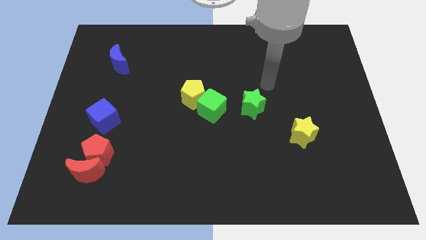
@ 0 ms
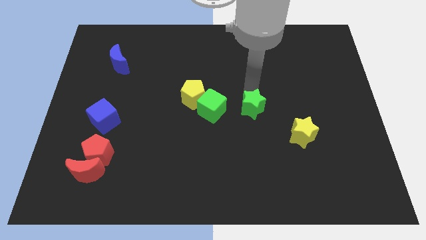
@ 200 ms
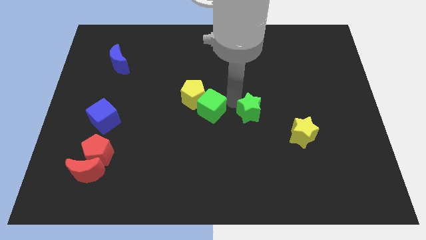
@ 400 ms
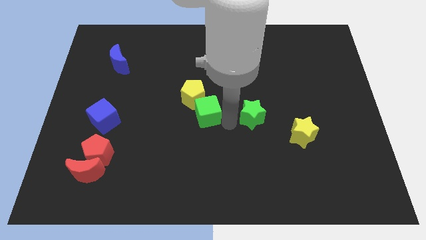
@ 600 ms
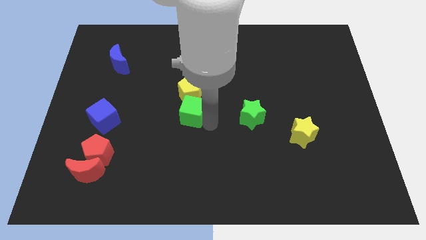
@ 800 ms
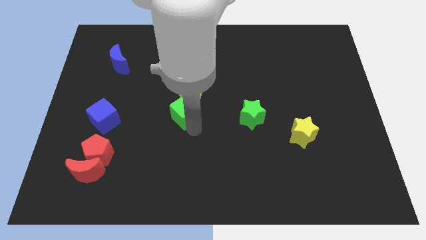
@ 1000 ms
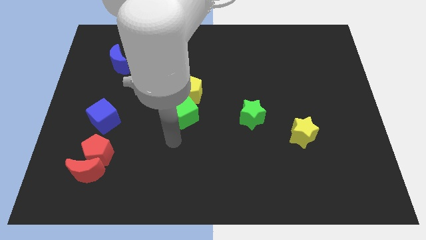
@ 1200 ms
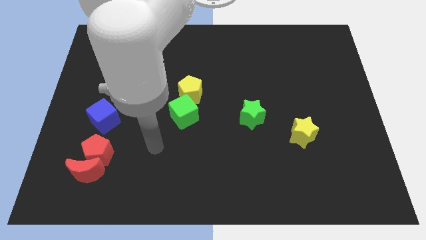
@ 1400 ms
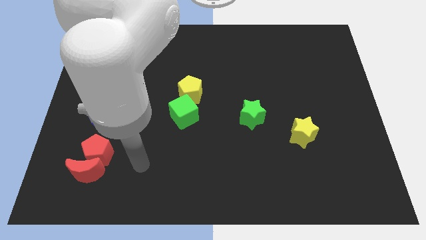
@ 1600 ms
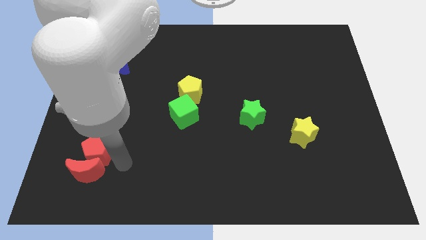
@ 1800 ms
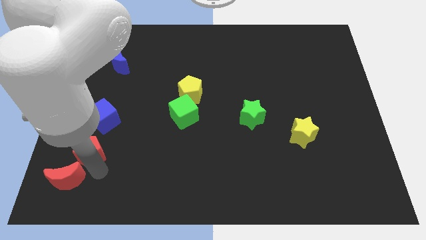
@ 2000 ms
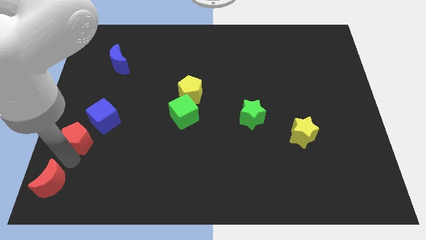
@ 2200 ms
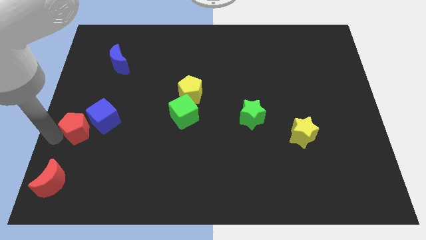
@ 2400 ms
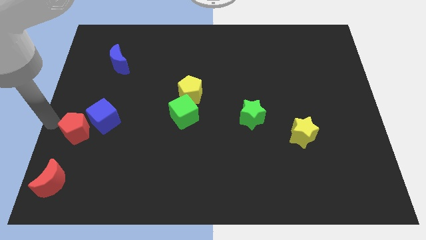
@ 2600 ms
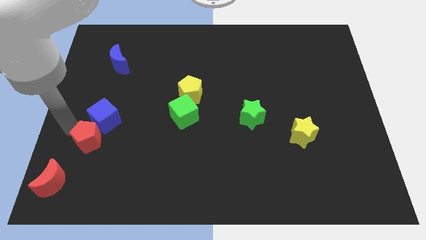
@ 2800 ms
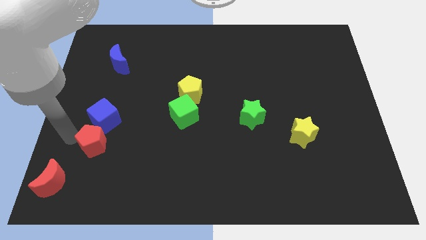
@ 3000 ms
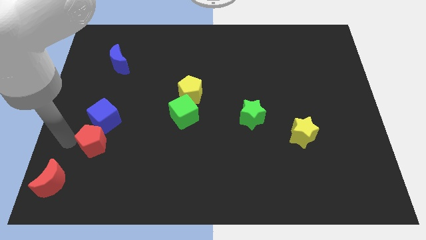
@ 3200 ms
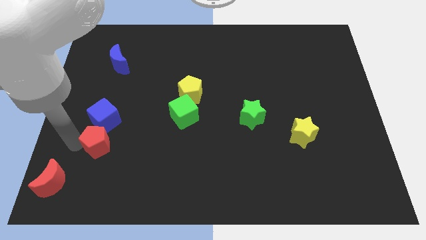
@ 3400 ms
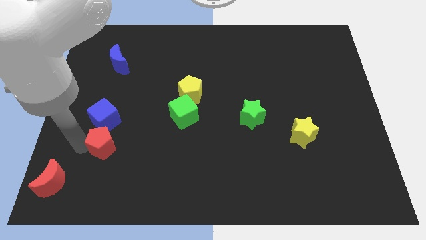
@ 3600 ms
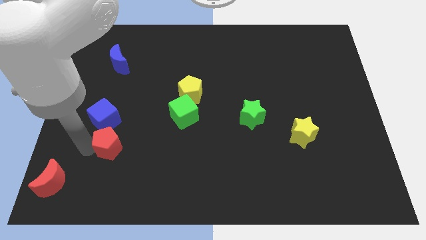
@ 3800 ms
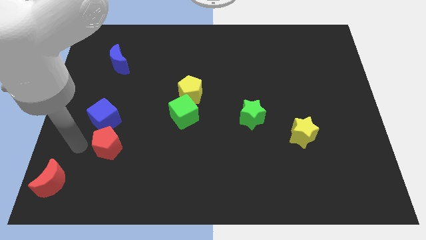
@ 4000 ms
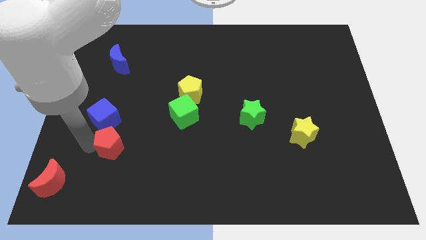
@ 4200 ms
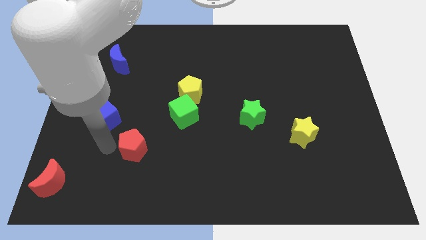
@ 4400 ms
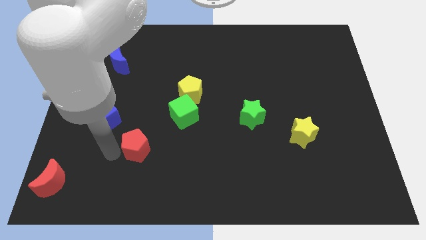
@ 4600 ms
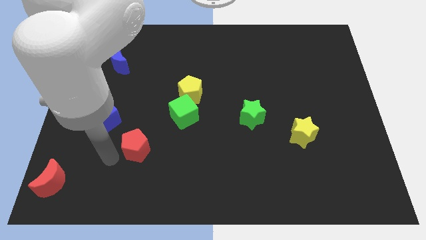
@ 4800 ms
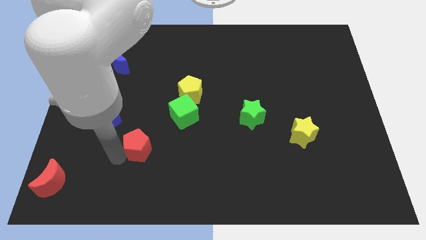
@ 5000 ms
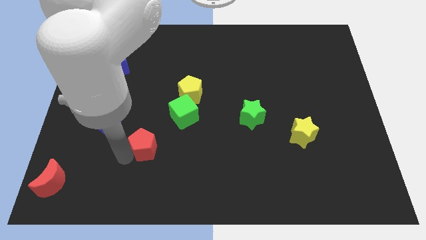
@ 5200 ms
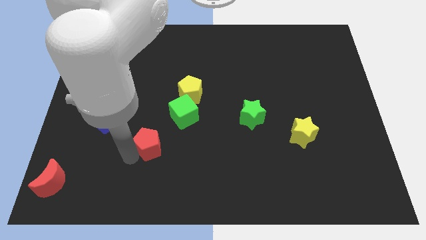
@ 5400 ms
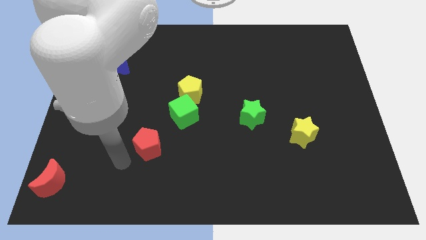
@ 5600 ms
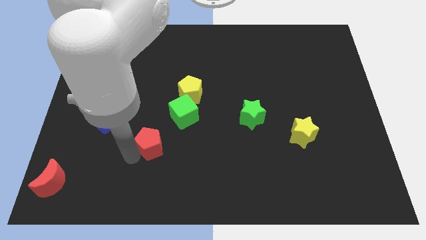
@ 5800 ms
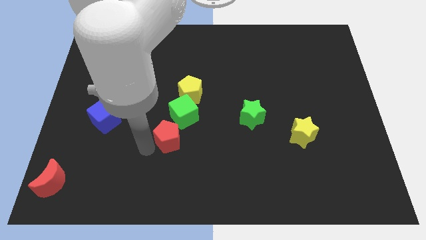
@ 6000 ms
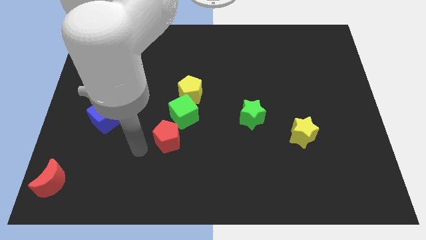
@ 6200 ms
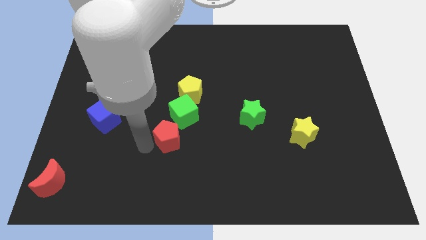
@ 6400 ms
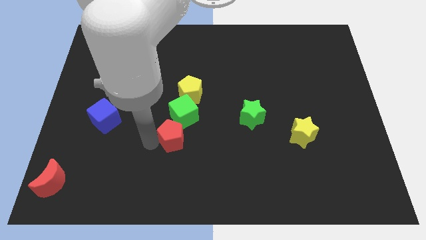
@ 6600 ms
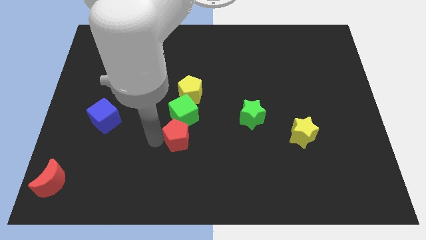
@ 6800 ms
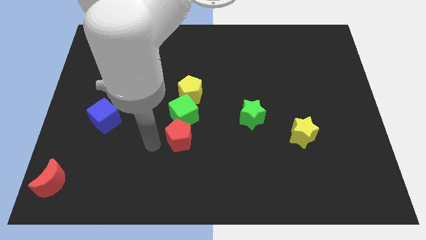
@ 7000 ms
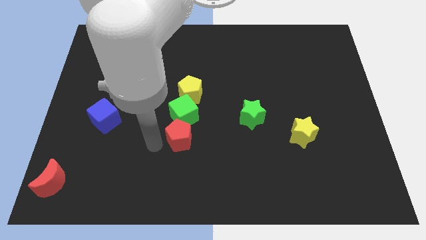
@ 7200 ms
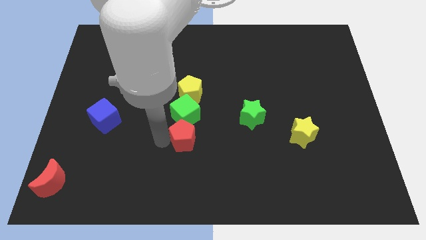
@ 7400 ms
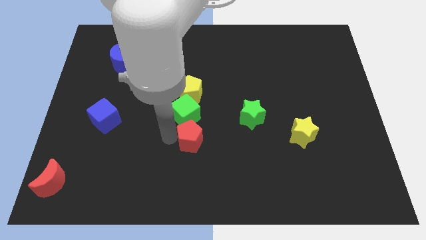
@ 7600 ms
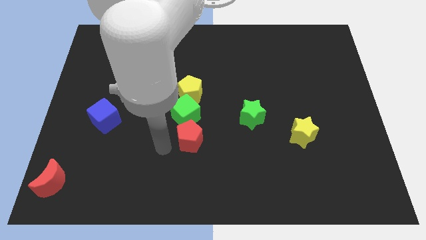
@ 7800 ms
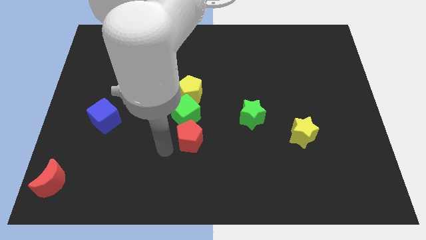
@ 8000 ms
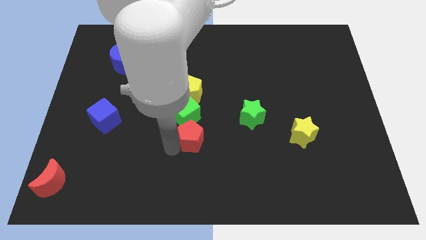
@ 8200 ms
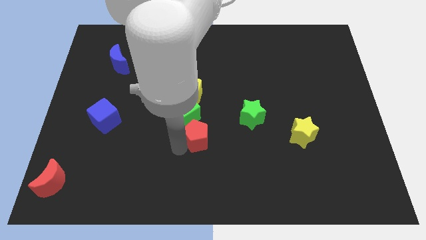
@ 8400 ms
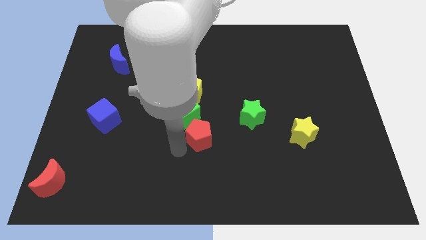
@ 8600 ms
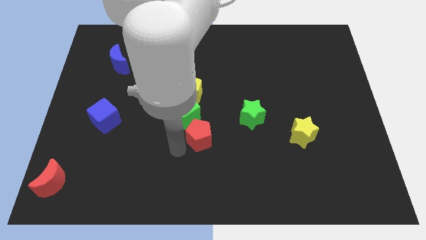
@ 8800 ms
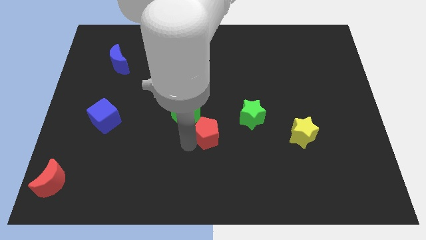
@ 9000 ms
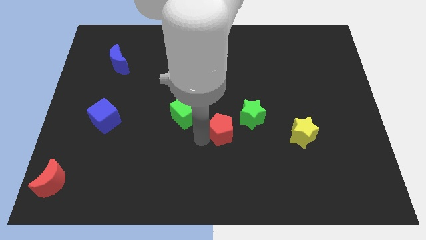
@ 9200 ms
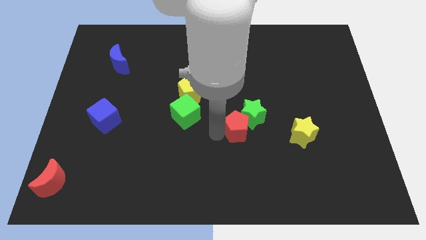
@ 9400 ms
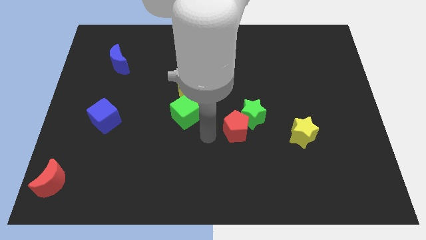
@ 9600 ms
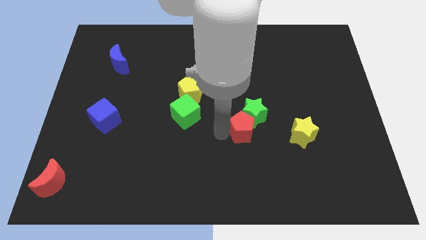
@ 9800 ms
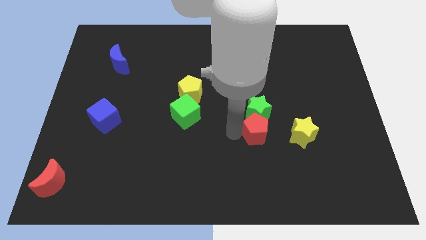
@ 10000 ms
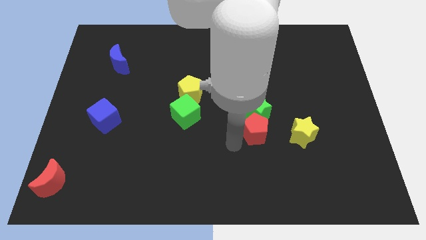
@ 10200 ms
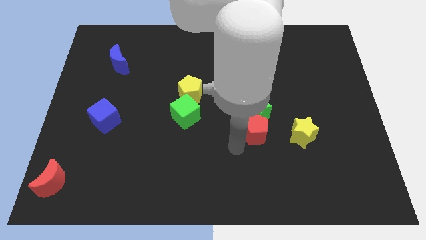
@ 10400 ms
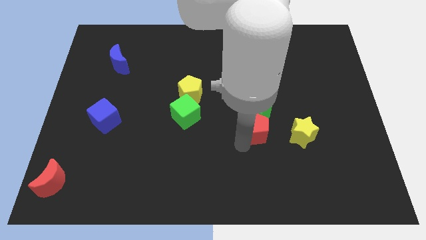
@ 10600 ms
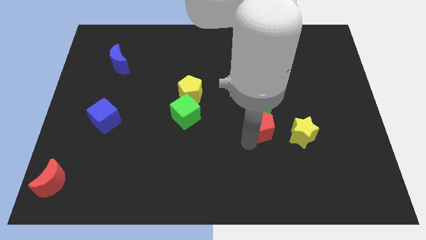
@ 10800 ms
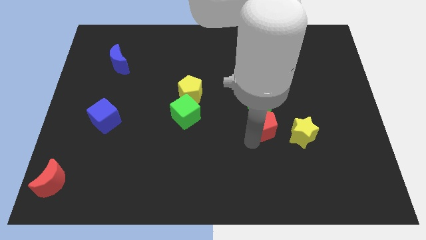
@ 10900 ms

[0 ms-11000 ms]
slide the red pentagon to the top left of the yellow star

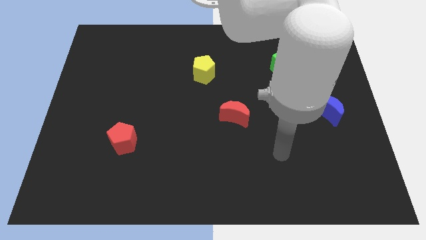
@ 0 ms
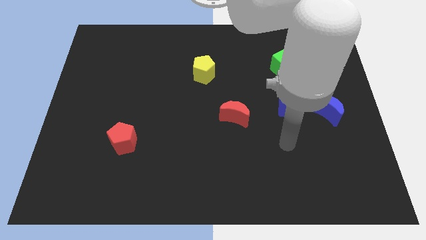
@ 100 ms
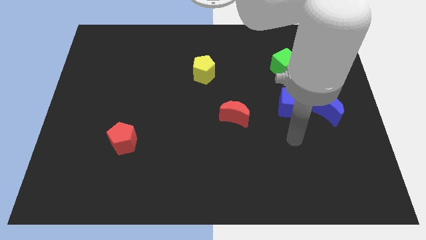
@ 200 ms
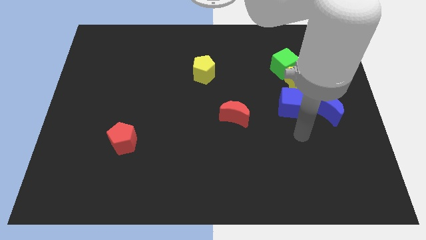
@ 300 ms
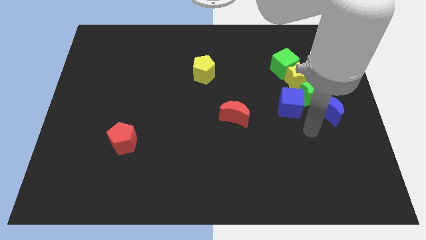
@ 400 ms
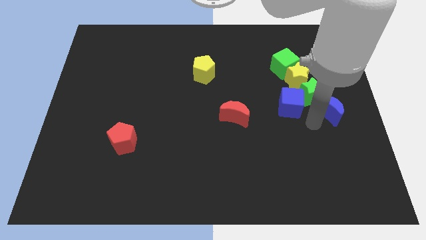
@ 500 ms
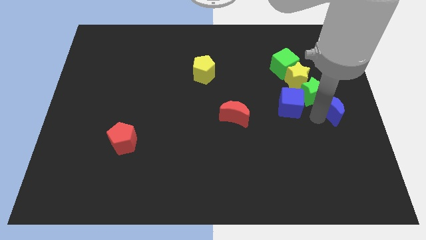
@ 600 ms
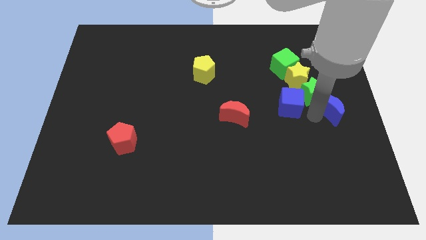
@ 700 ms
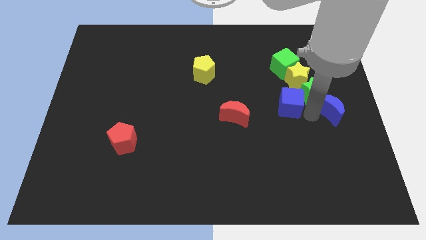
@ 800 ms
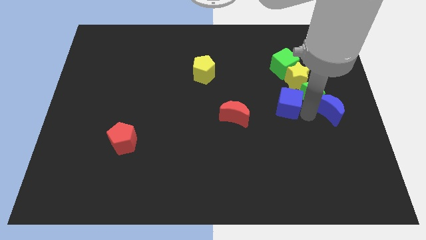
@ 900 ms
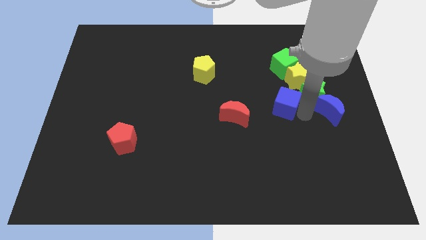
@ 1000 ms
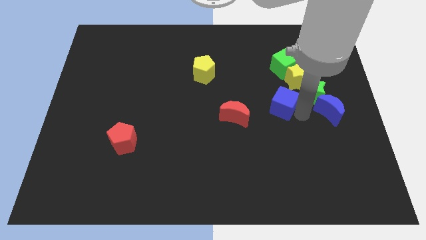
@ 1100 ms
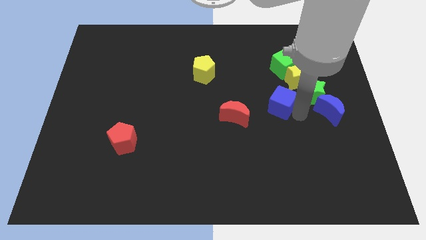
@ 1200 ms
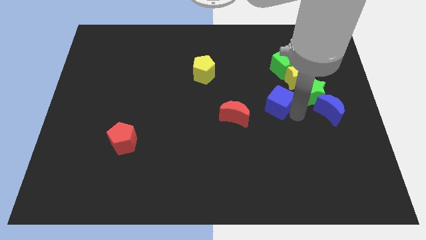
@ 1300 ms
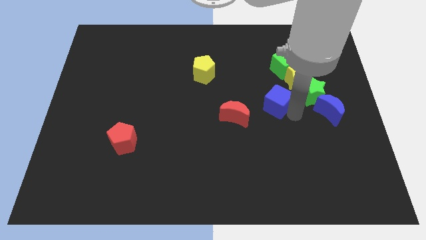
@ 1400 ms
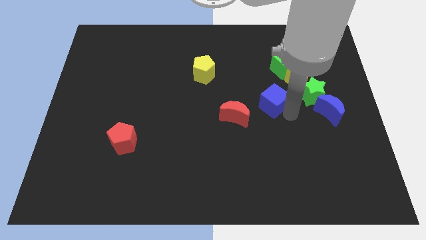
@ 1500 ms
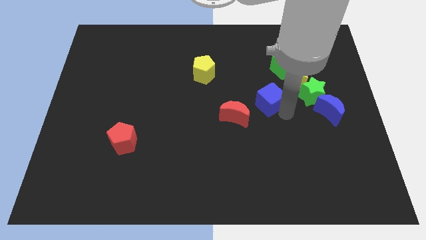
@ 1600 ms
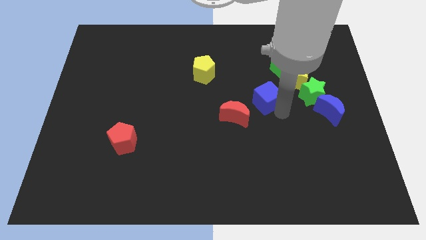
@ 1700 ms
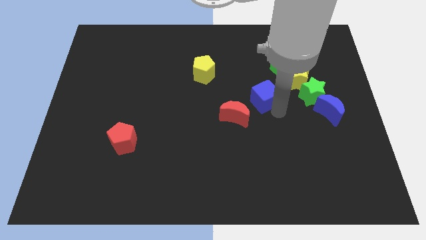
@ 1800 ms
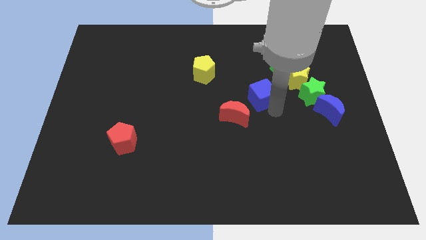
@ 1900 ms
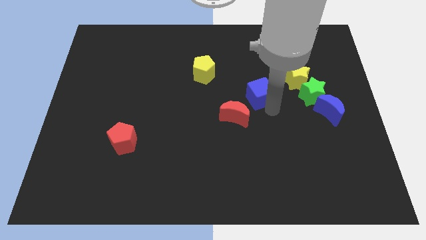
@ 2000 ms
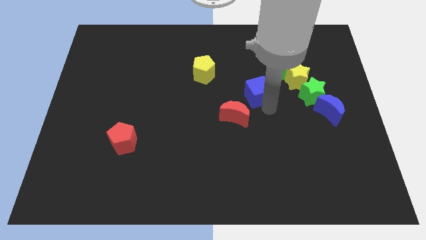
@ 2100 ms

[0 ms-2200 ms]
put the blue cube to the left side of the yellow star
